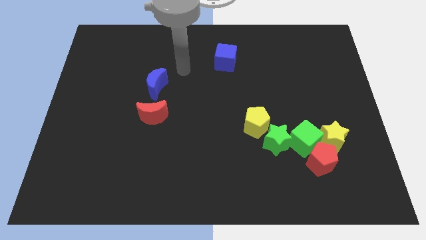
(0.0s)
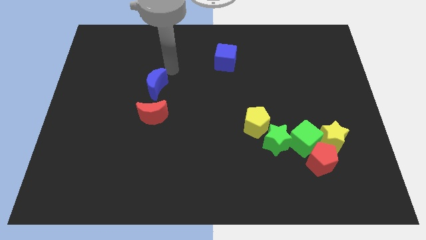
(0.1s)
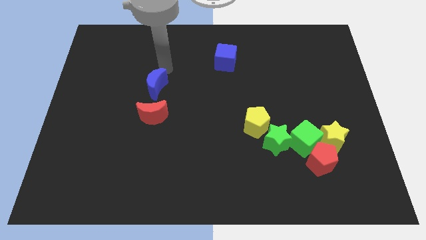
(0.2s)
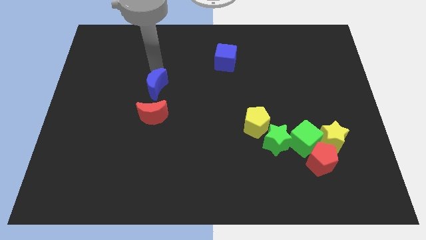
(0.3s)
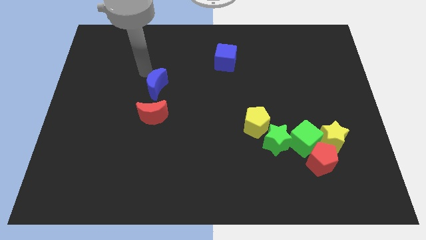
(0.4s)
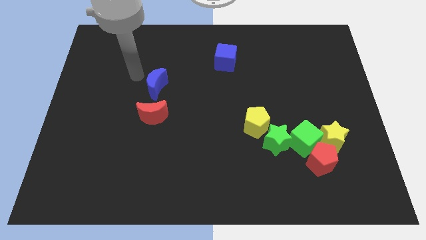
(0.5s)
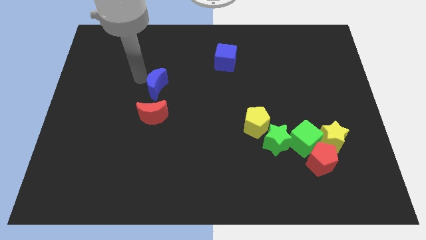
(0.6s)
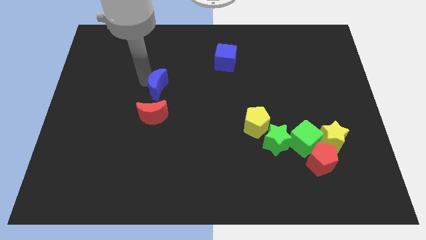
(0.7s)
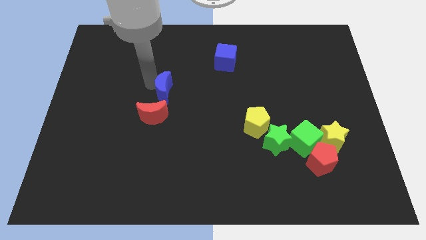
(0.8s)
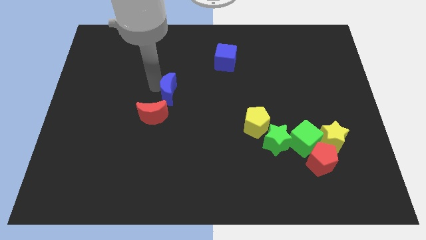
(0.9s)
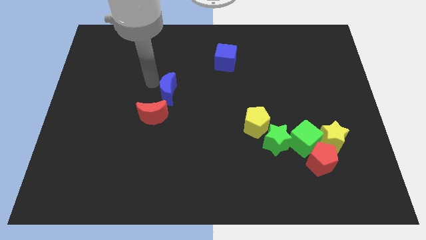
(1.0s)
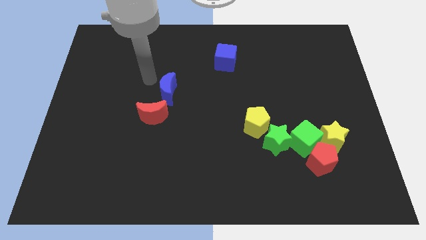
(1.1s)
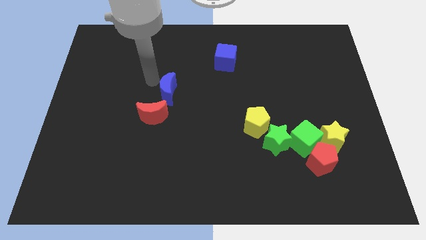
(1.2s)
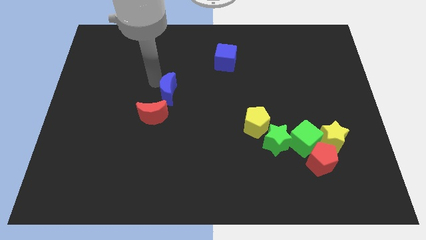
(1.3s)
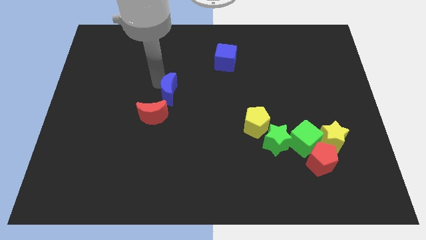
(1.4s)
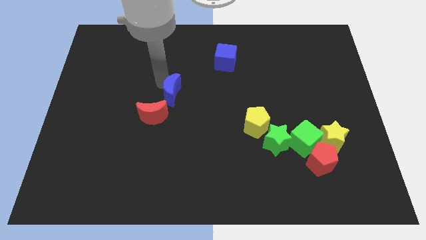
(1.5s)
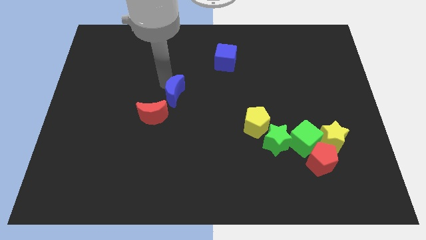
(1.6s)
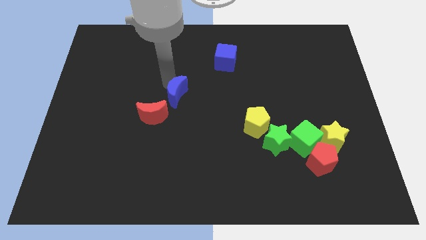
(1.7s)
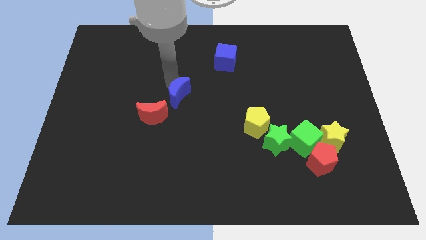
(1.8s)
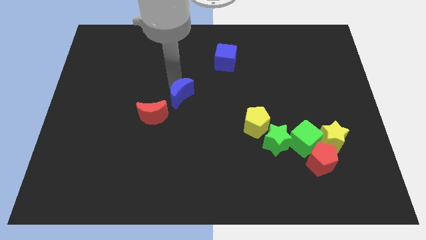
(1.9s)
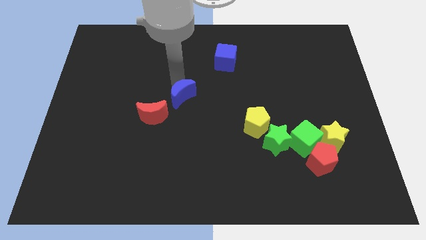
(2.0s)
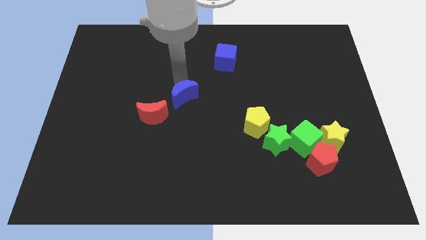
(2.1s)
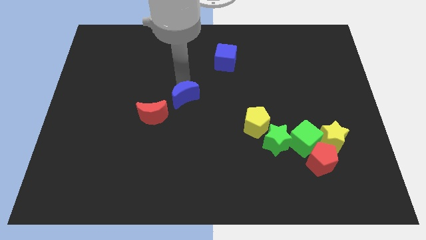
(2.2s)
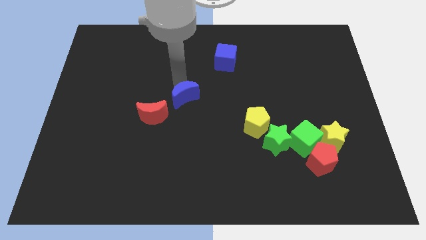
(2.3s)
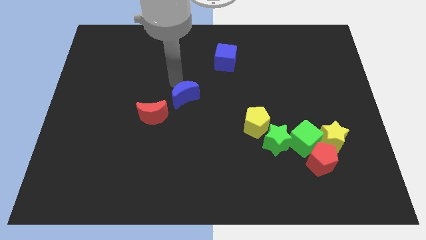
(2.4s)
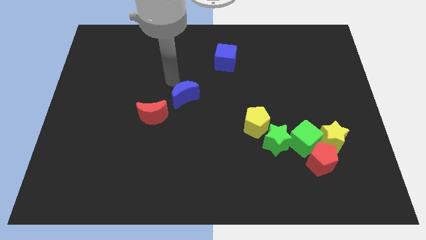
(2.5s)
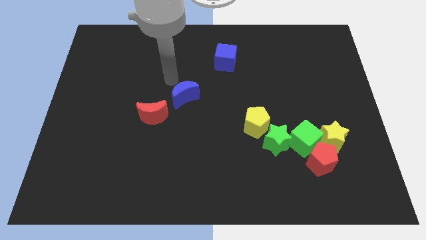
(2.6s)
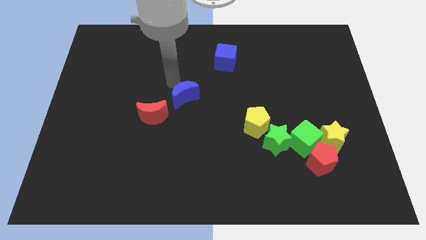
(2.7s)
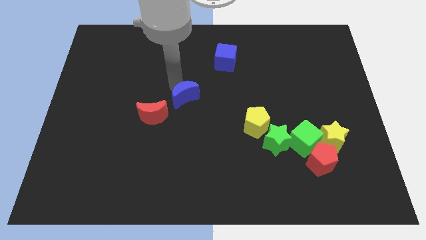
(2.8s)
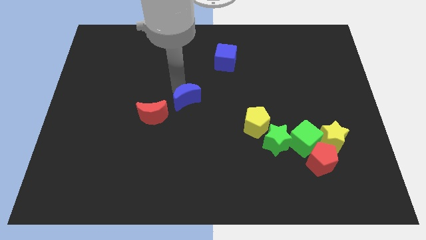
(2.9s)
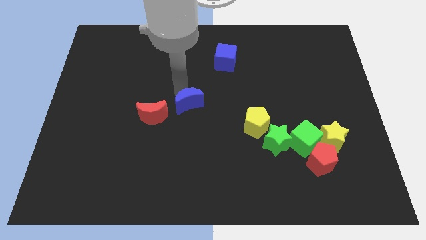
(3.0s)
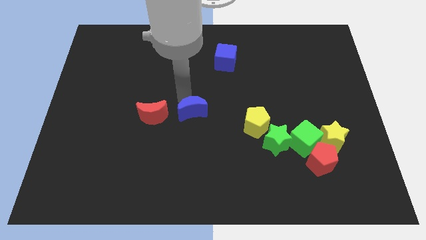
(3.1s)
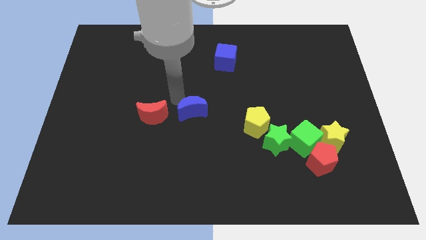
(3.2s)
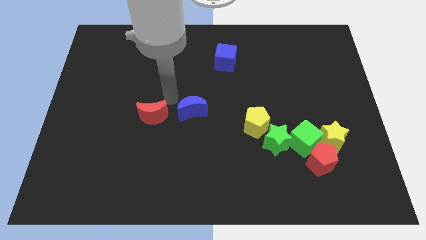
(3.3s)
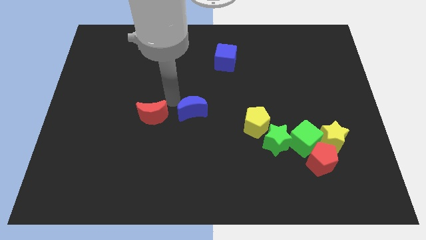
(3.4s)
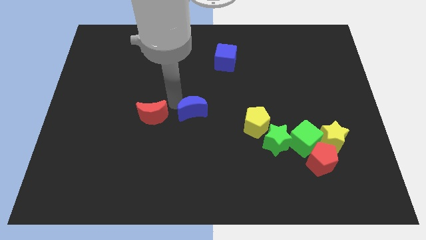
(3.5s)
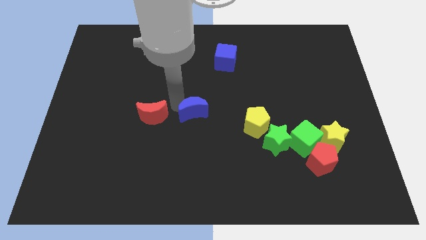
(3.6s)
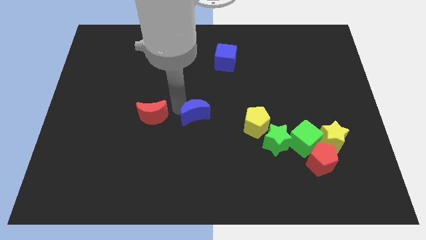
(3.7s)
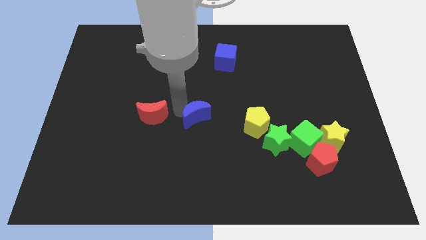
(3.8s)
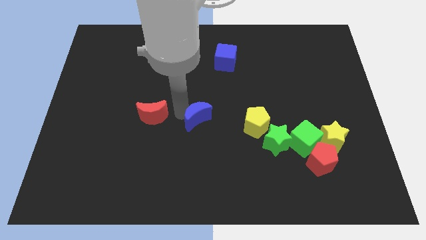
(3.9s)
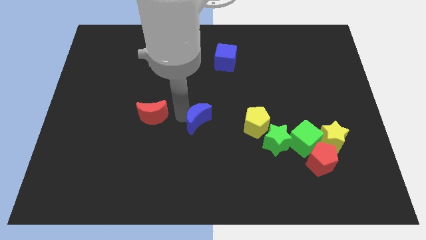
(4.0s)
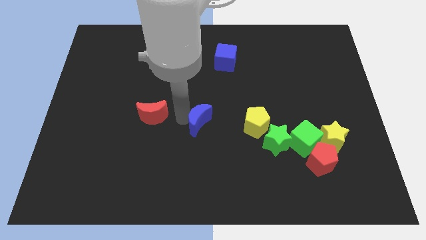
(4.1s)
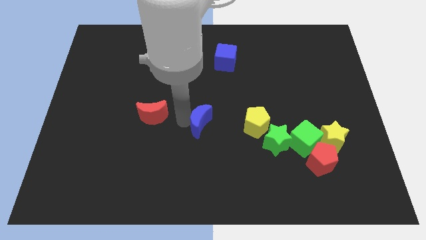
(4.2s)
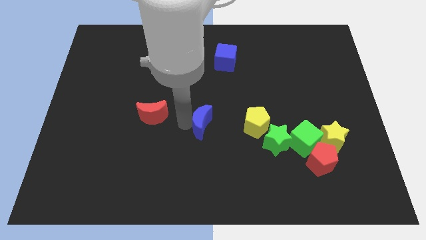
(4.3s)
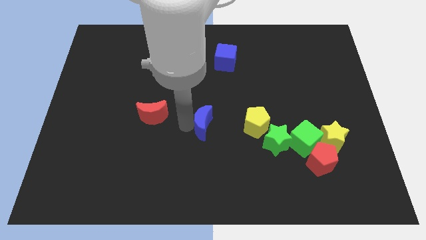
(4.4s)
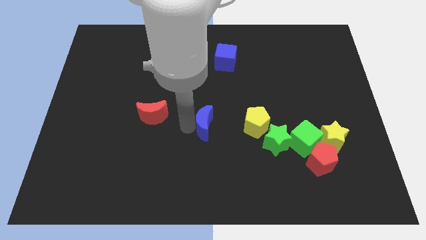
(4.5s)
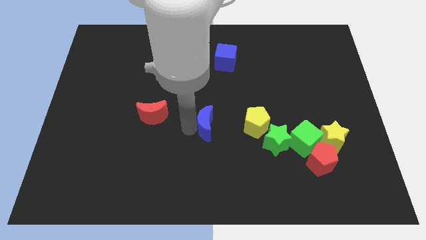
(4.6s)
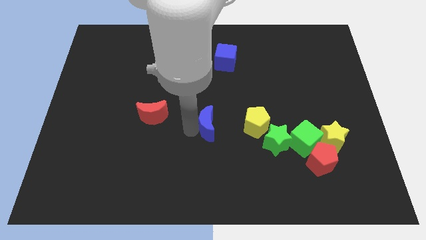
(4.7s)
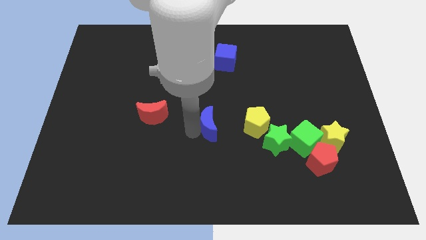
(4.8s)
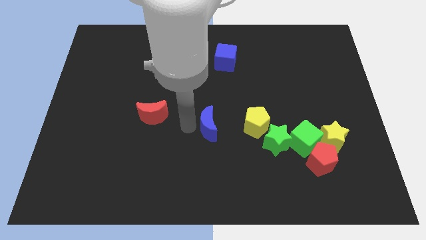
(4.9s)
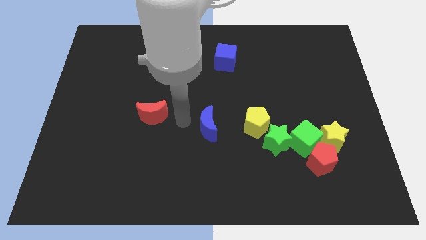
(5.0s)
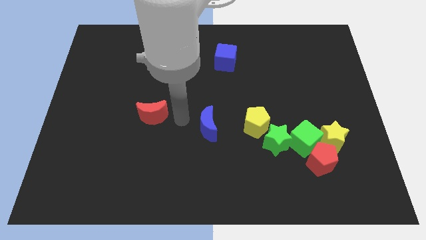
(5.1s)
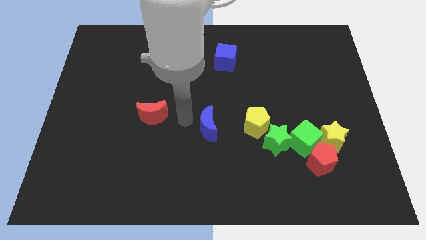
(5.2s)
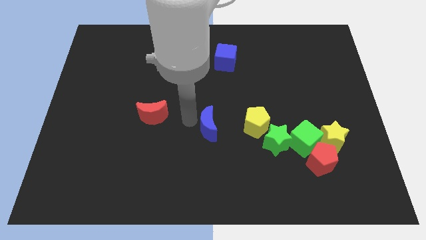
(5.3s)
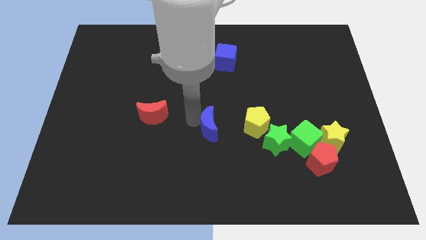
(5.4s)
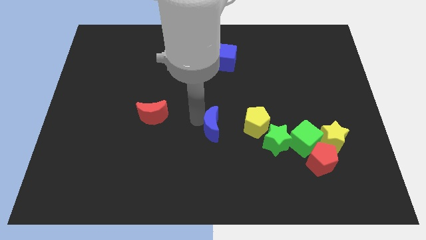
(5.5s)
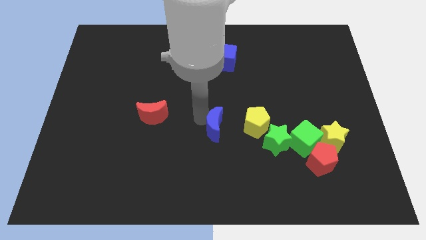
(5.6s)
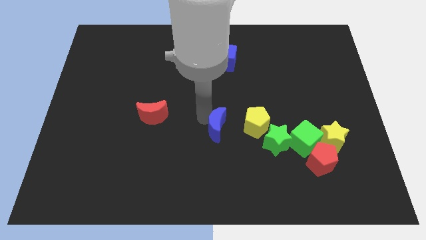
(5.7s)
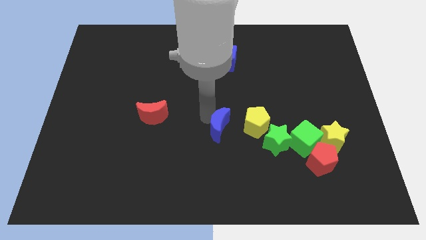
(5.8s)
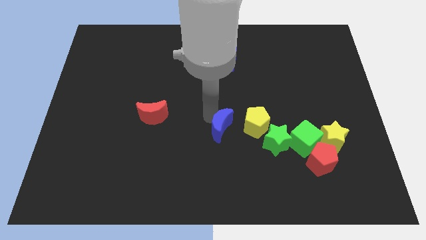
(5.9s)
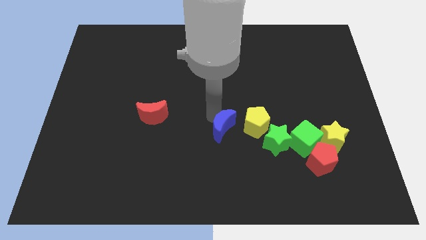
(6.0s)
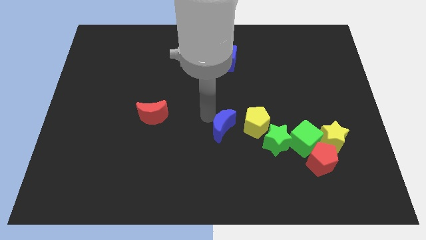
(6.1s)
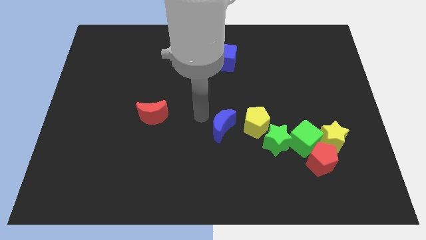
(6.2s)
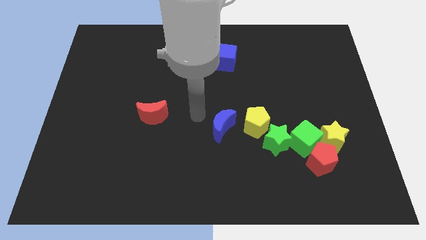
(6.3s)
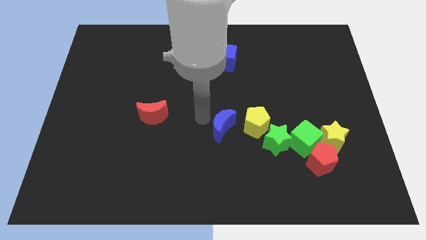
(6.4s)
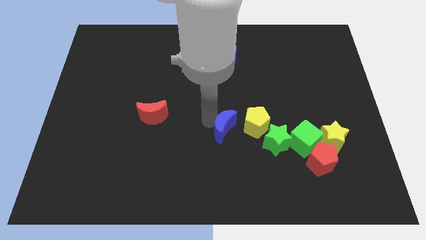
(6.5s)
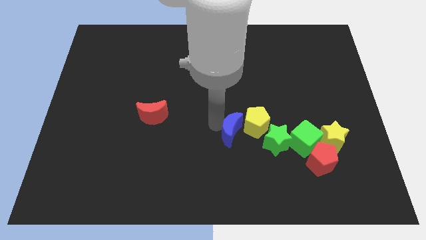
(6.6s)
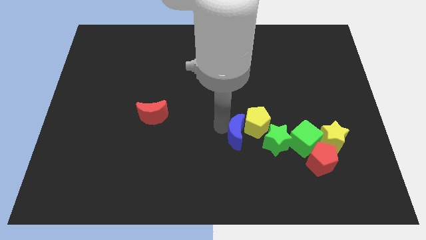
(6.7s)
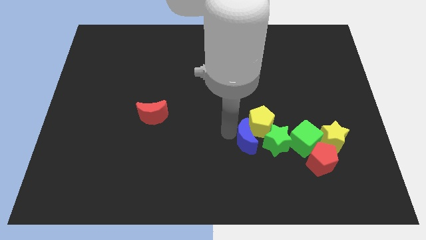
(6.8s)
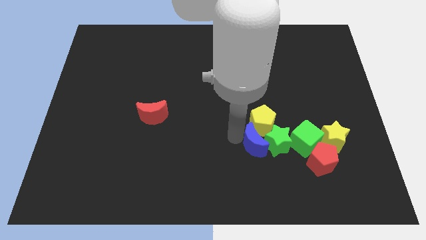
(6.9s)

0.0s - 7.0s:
move the blue moon to the green star
